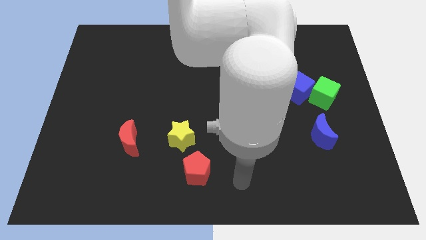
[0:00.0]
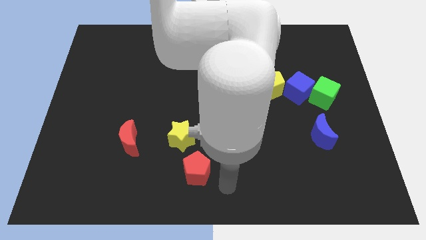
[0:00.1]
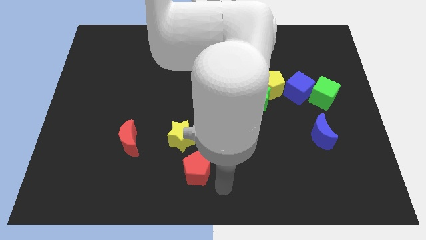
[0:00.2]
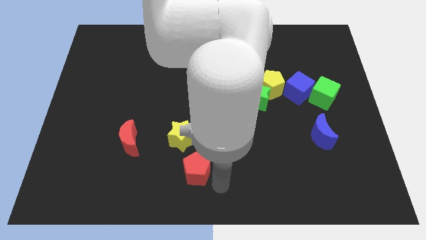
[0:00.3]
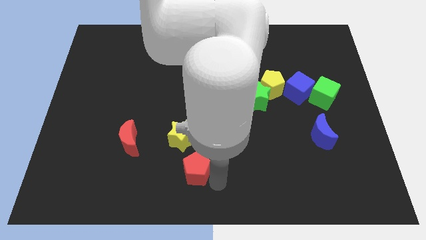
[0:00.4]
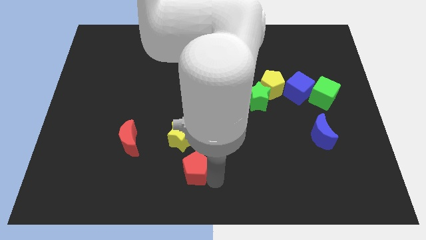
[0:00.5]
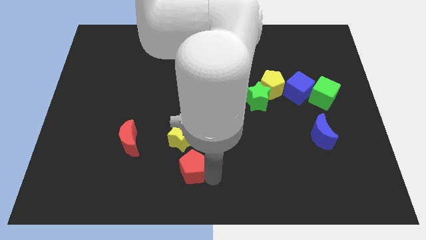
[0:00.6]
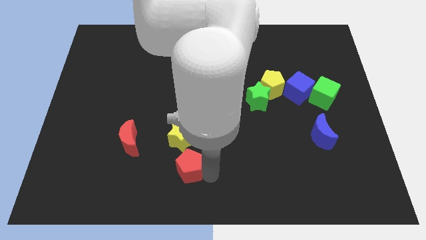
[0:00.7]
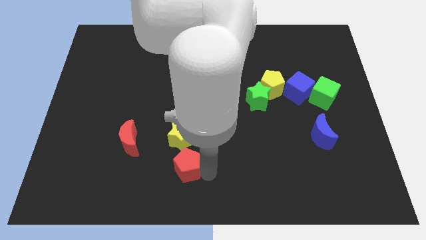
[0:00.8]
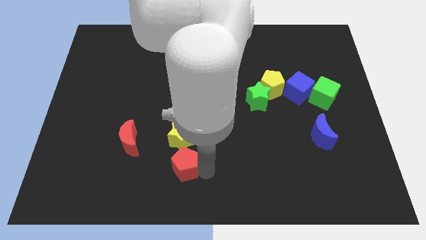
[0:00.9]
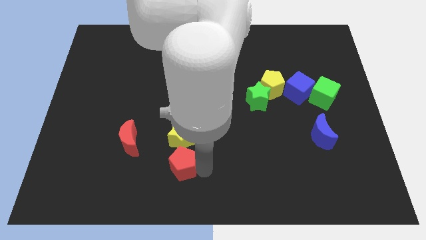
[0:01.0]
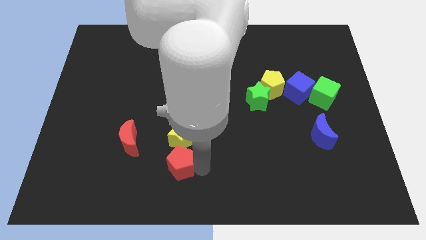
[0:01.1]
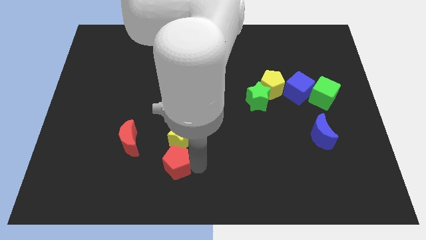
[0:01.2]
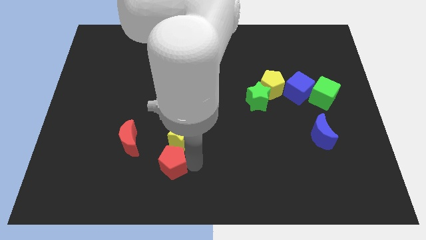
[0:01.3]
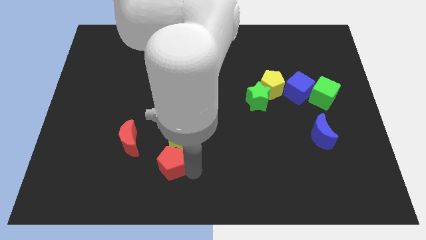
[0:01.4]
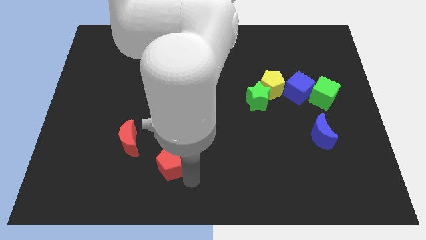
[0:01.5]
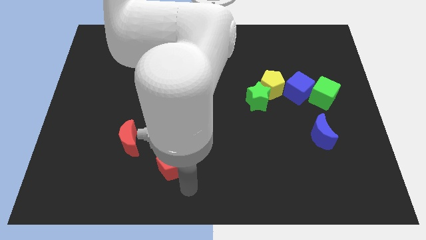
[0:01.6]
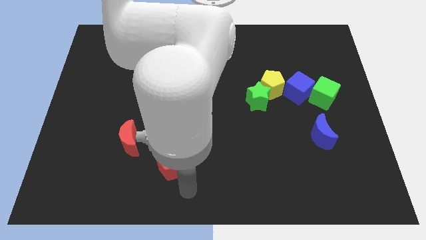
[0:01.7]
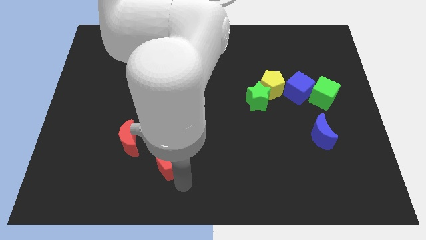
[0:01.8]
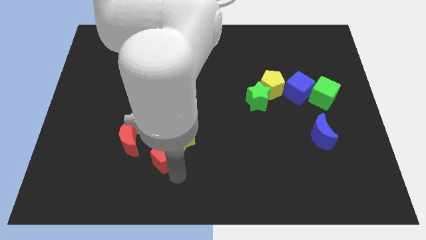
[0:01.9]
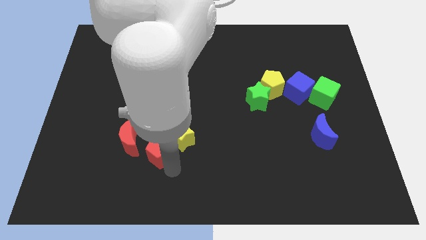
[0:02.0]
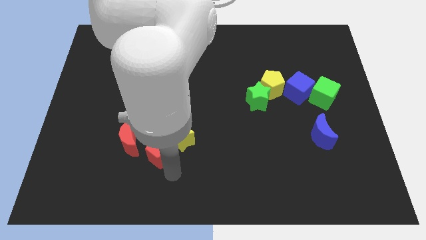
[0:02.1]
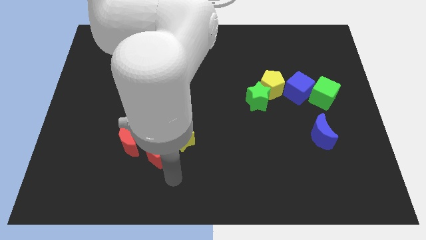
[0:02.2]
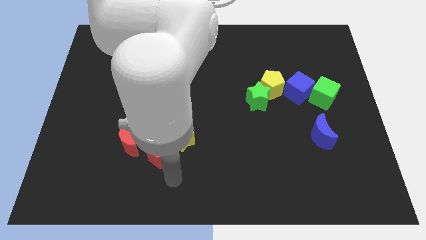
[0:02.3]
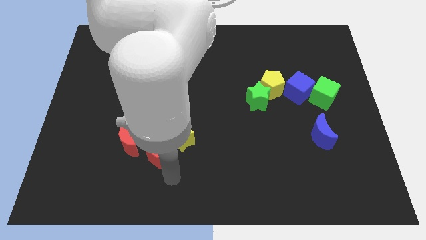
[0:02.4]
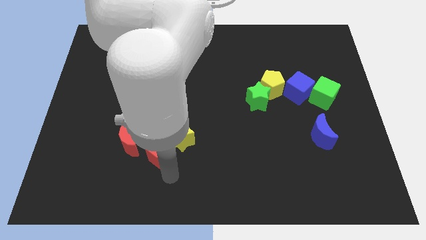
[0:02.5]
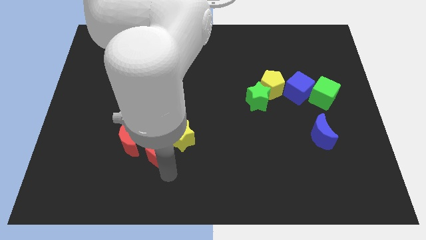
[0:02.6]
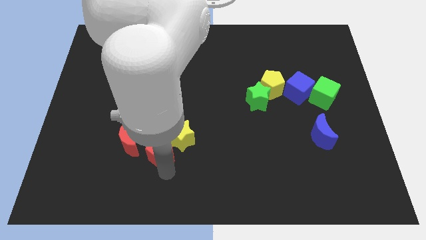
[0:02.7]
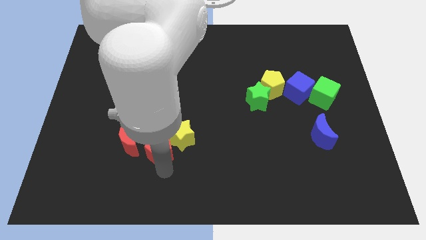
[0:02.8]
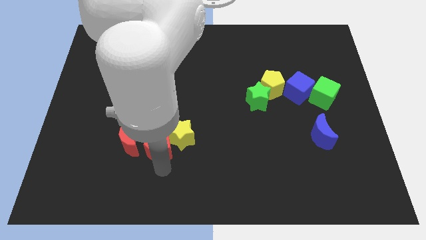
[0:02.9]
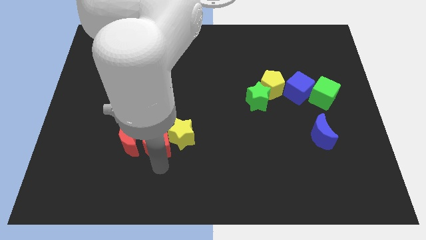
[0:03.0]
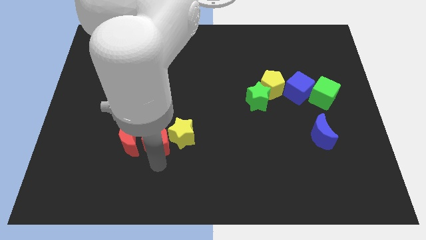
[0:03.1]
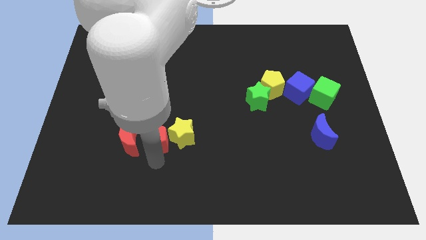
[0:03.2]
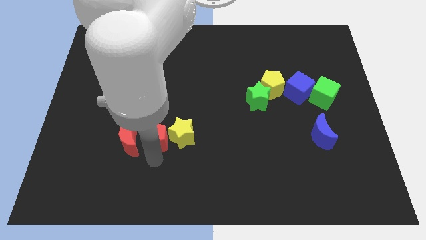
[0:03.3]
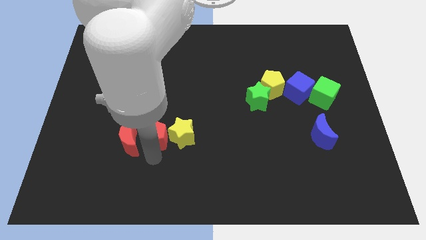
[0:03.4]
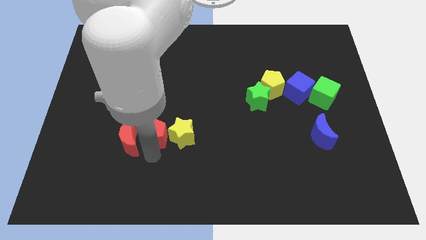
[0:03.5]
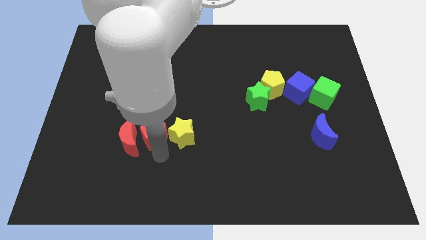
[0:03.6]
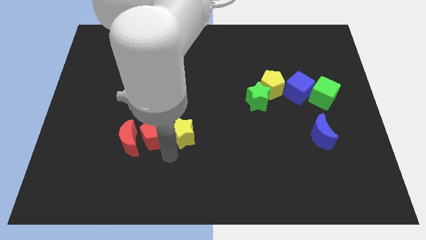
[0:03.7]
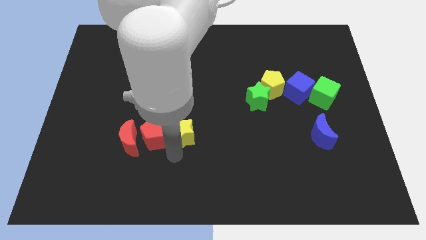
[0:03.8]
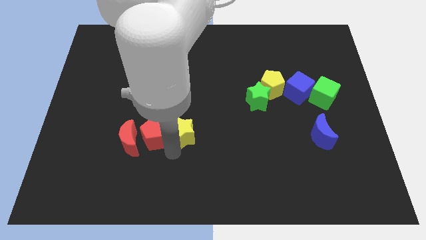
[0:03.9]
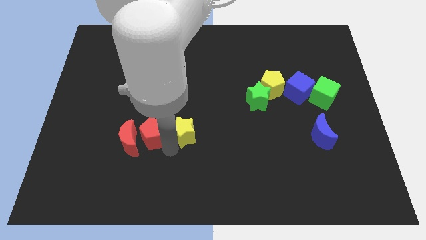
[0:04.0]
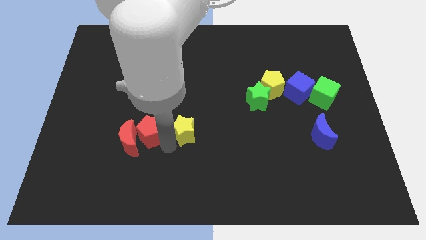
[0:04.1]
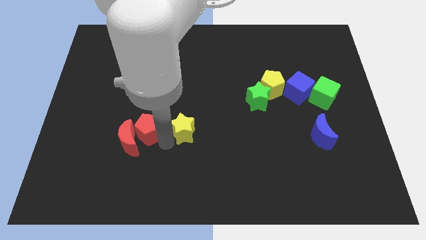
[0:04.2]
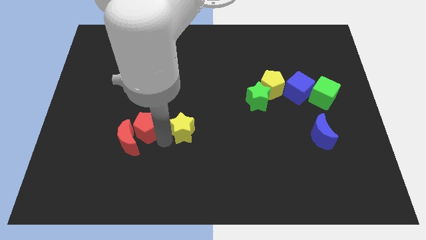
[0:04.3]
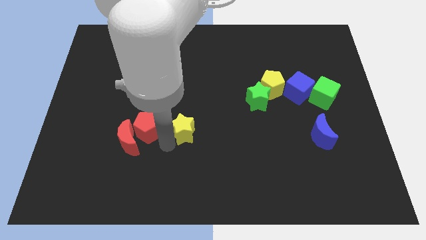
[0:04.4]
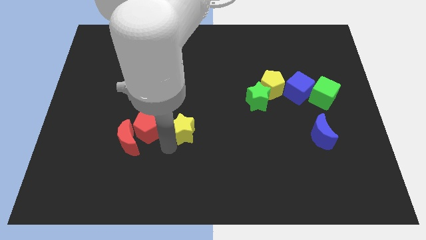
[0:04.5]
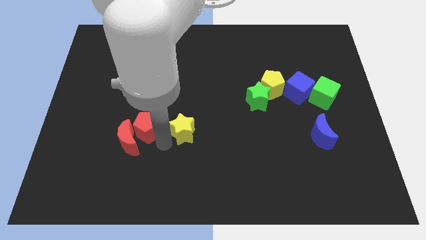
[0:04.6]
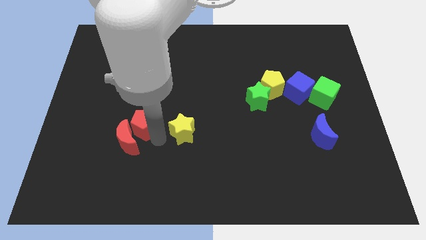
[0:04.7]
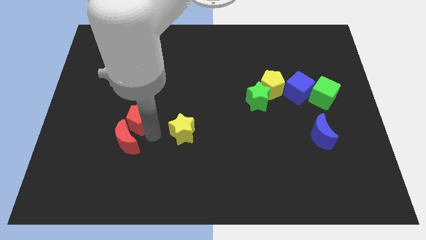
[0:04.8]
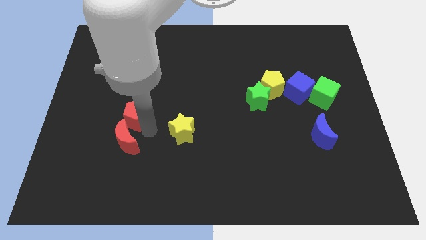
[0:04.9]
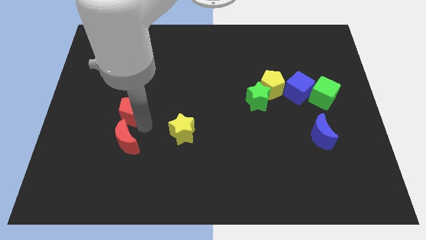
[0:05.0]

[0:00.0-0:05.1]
push the red pentagon diagonally upwards and to the left

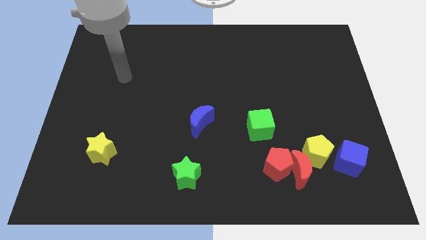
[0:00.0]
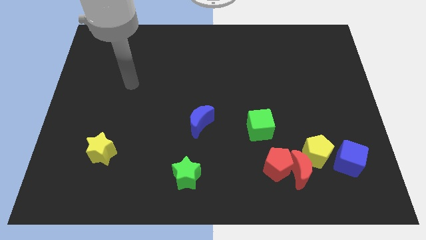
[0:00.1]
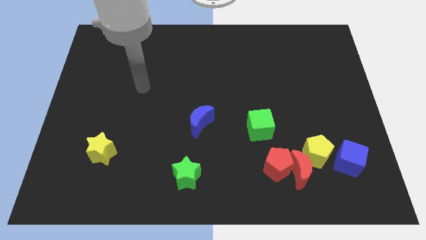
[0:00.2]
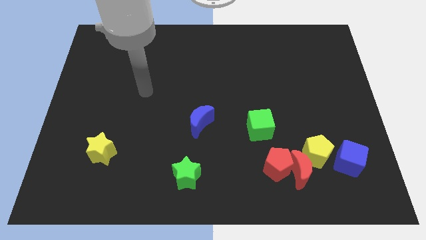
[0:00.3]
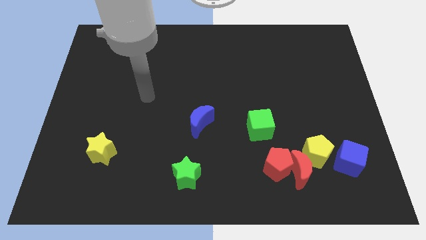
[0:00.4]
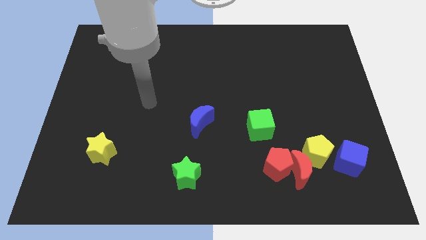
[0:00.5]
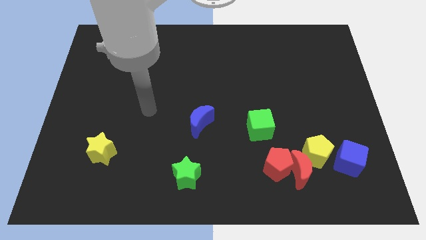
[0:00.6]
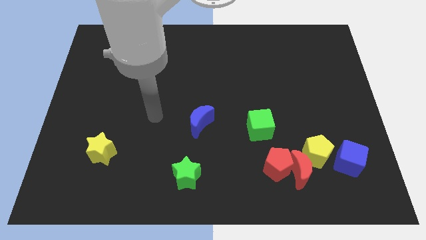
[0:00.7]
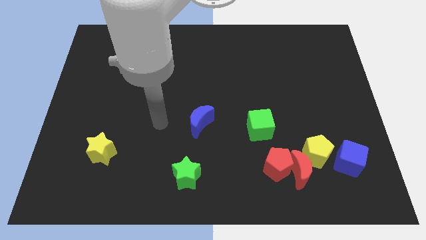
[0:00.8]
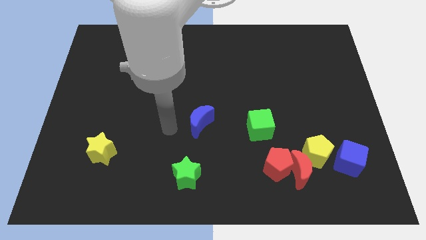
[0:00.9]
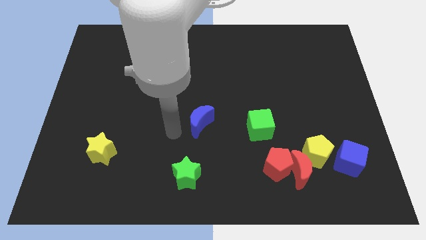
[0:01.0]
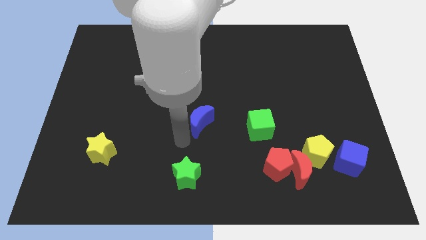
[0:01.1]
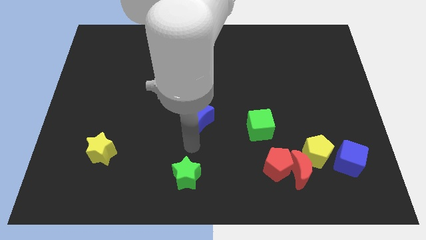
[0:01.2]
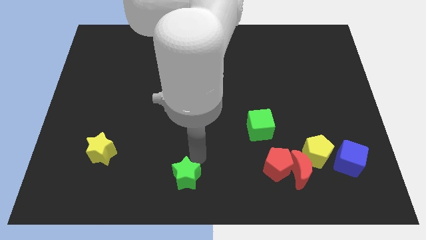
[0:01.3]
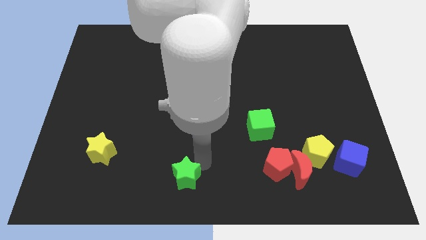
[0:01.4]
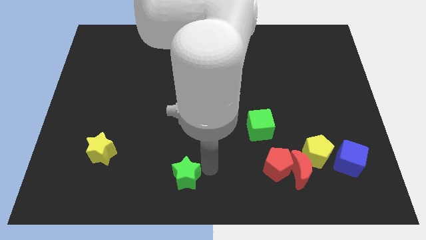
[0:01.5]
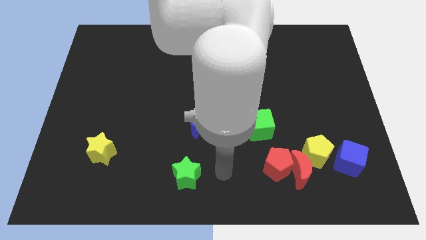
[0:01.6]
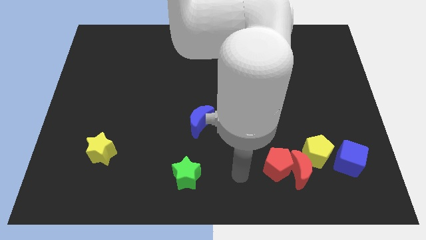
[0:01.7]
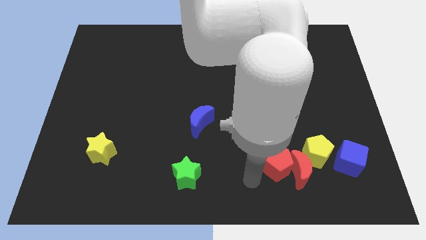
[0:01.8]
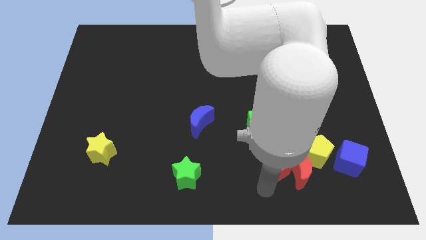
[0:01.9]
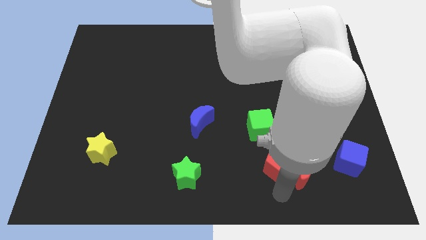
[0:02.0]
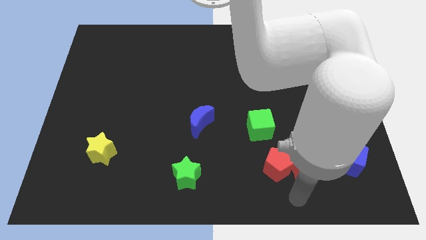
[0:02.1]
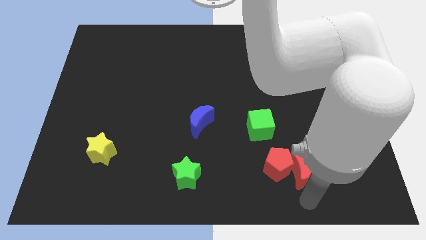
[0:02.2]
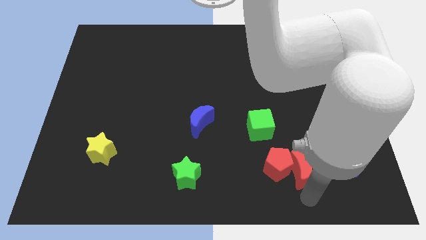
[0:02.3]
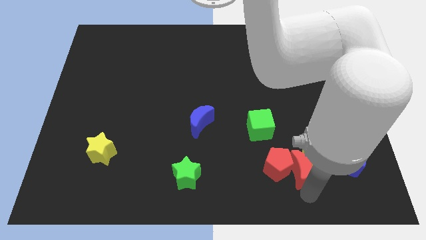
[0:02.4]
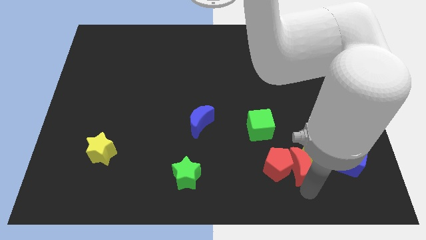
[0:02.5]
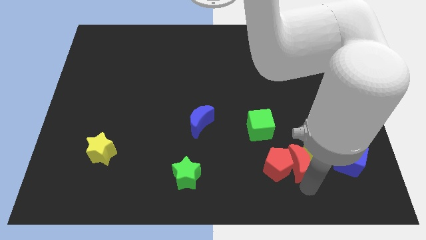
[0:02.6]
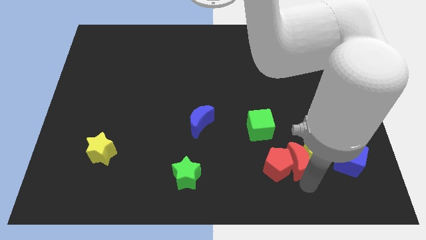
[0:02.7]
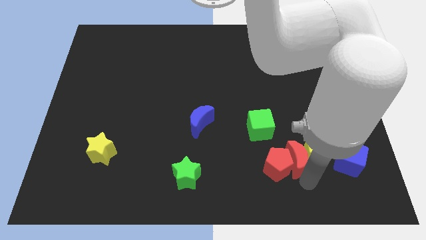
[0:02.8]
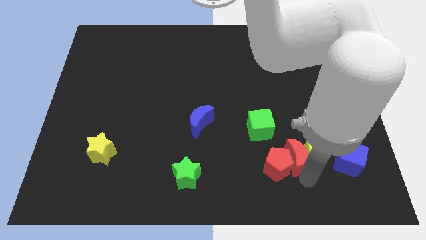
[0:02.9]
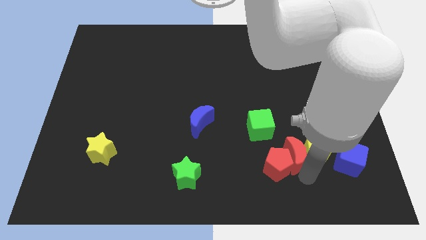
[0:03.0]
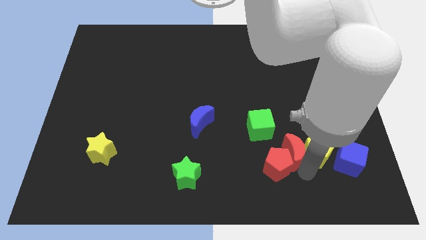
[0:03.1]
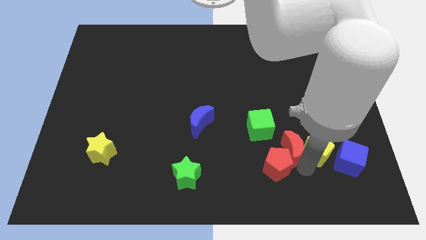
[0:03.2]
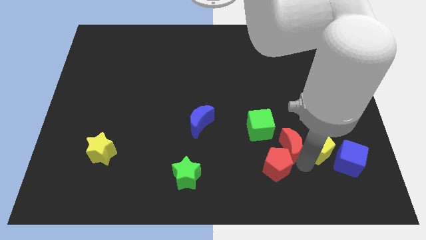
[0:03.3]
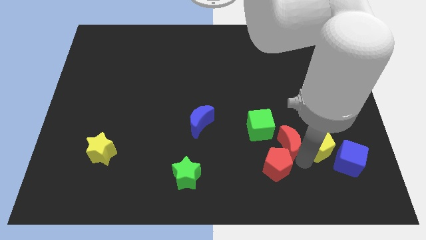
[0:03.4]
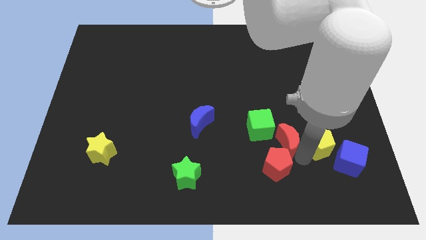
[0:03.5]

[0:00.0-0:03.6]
move the red moon upwards a bit
